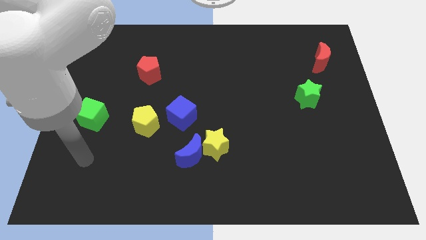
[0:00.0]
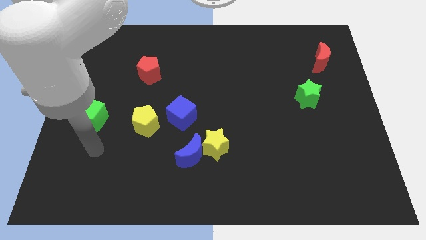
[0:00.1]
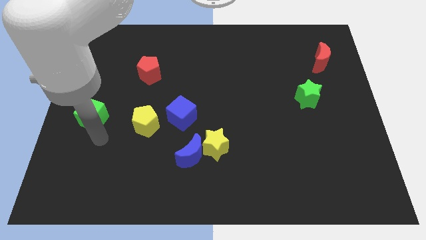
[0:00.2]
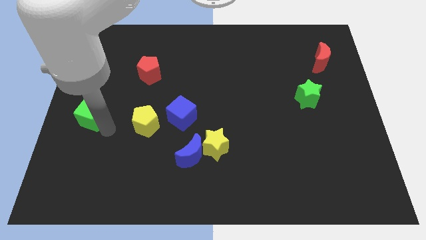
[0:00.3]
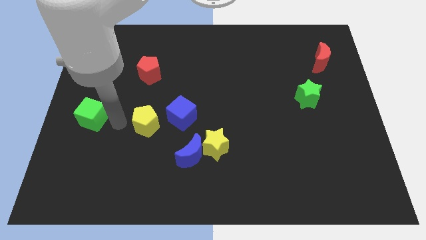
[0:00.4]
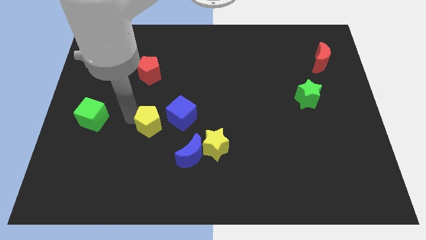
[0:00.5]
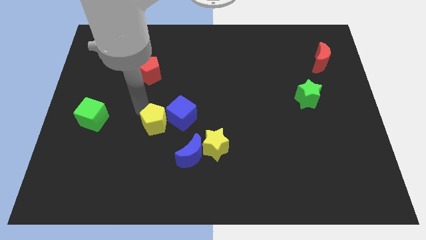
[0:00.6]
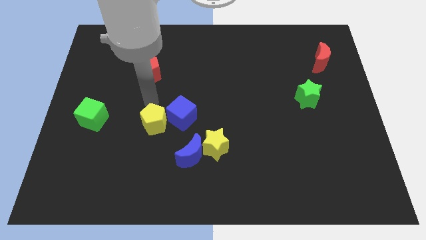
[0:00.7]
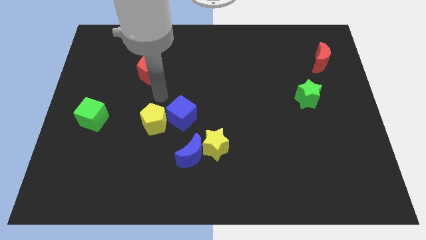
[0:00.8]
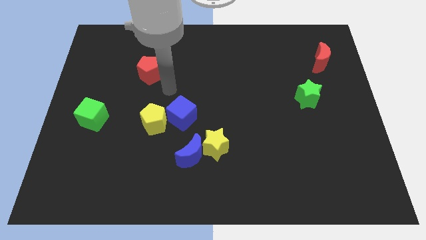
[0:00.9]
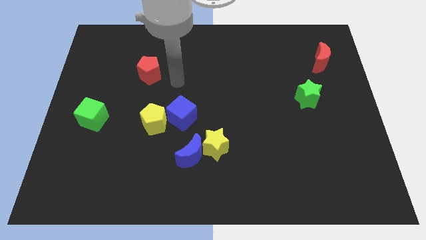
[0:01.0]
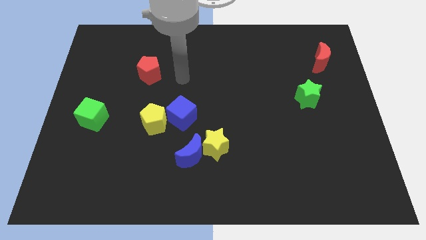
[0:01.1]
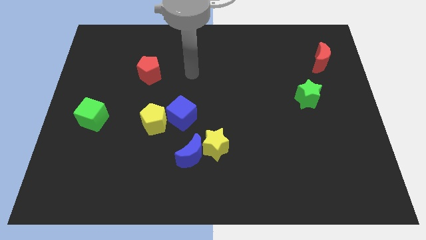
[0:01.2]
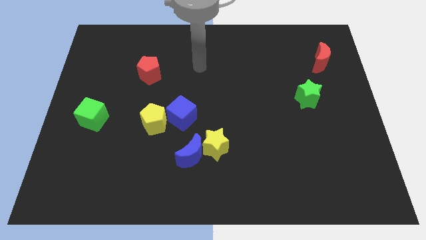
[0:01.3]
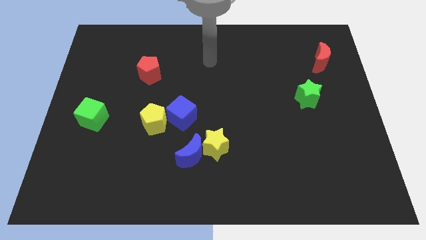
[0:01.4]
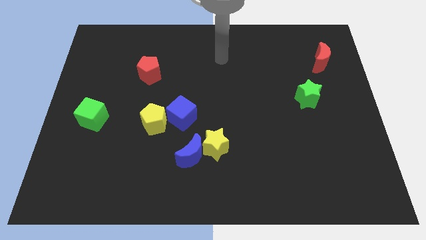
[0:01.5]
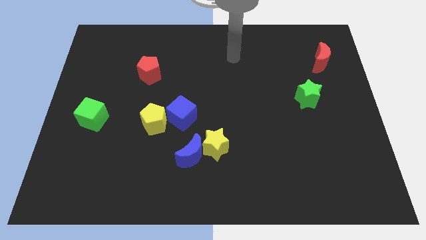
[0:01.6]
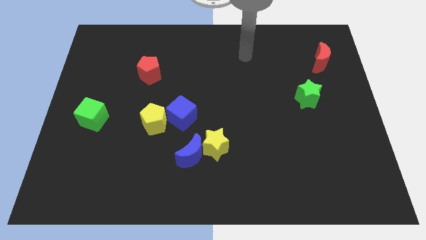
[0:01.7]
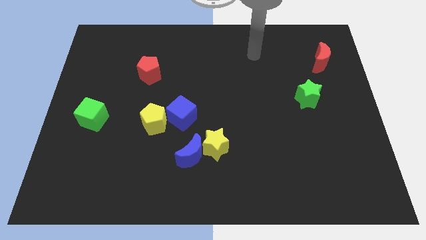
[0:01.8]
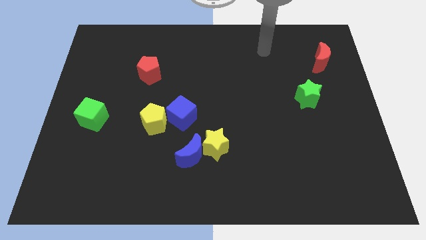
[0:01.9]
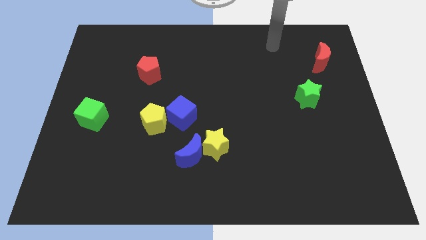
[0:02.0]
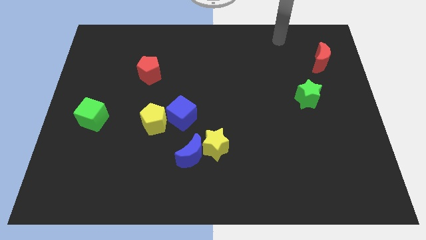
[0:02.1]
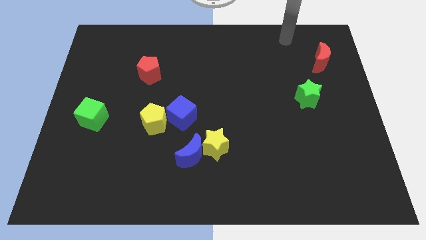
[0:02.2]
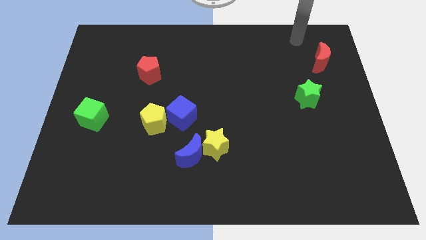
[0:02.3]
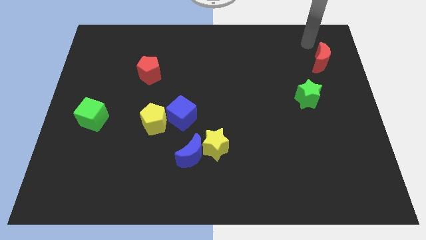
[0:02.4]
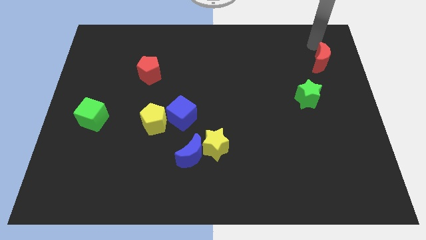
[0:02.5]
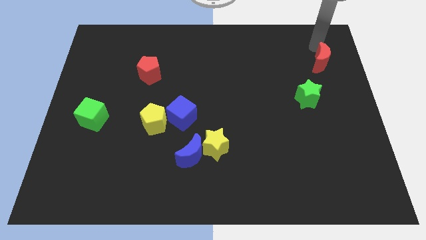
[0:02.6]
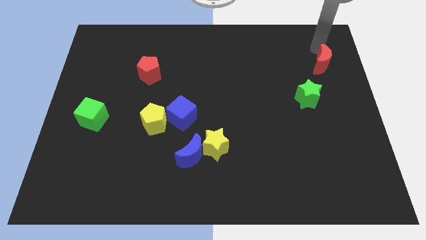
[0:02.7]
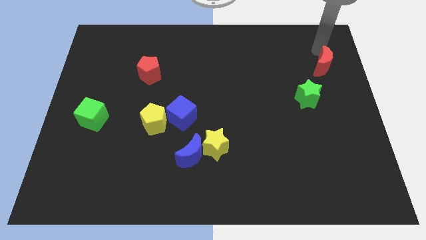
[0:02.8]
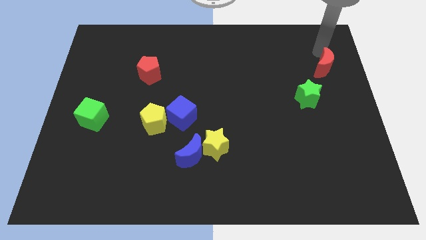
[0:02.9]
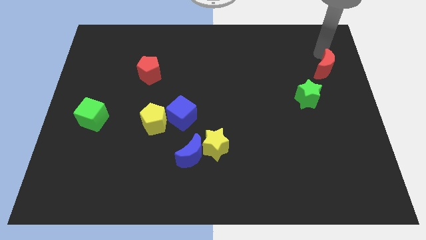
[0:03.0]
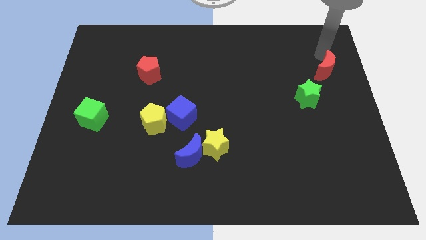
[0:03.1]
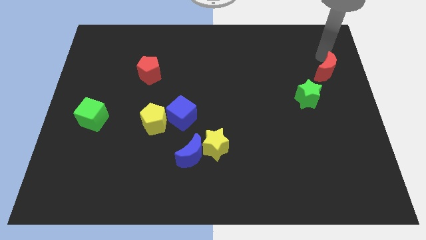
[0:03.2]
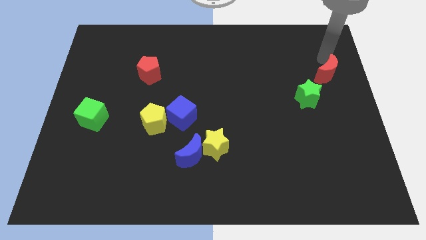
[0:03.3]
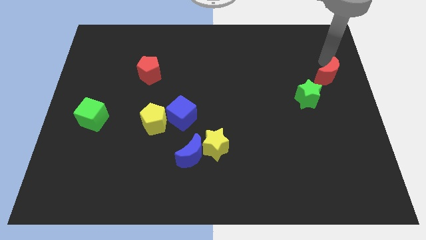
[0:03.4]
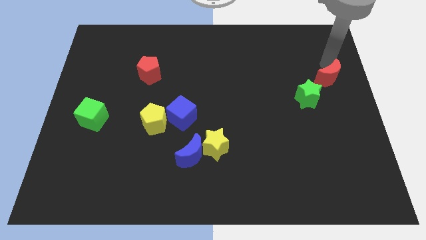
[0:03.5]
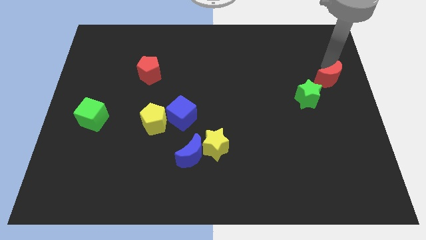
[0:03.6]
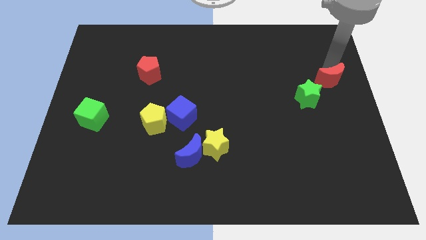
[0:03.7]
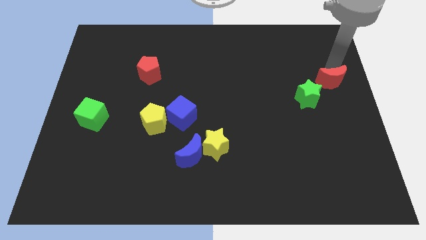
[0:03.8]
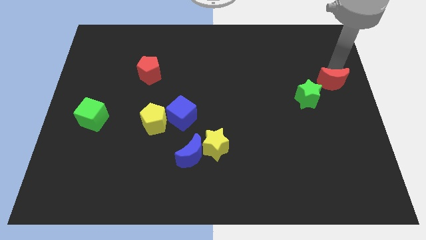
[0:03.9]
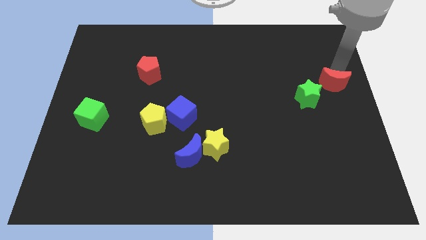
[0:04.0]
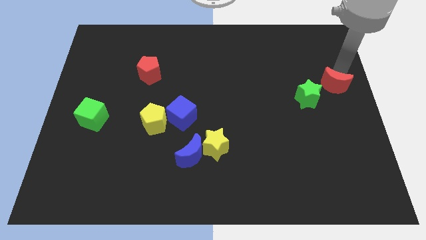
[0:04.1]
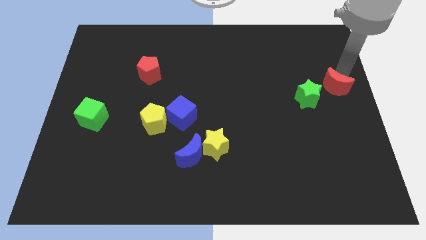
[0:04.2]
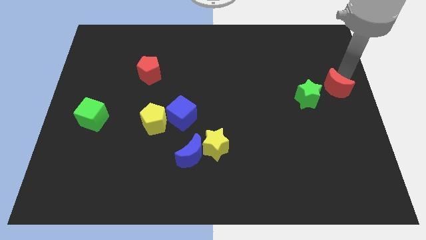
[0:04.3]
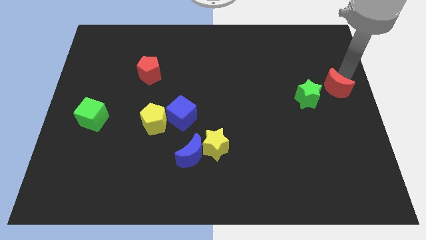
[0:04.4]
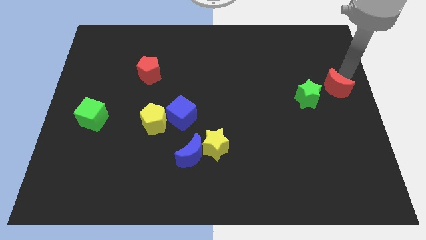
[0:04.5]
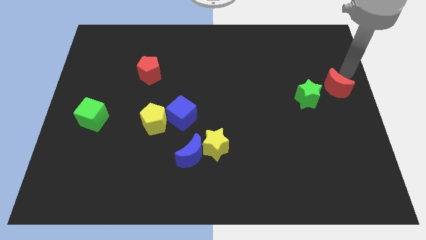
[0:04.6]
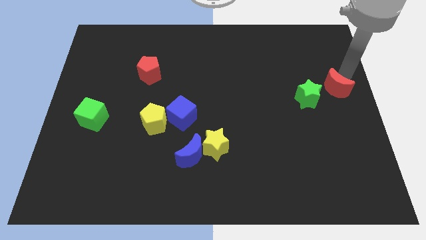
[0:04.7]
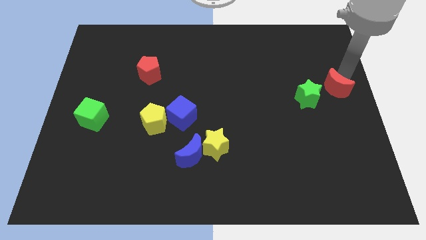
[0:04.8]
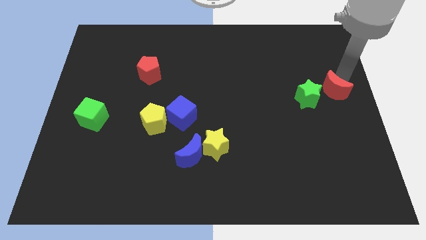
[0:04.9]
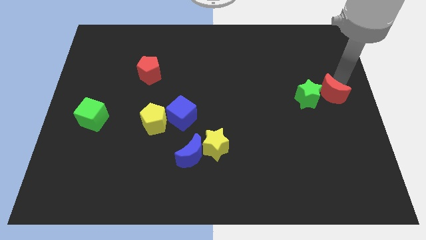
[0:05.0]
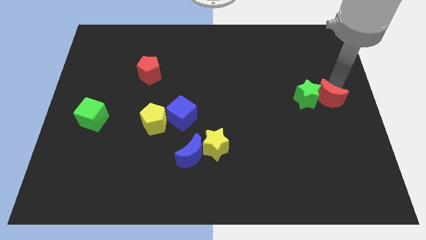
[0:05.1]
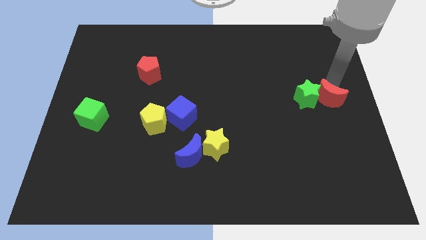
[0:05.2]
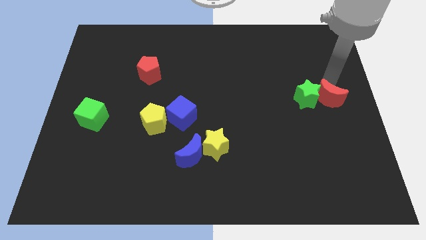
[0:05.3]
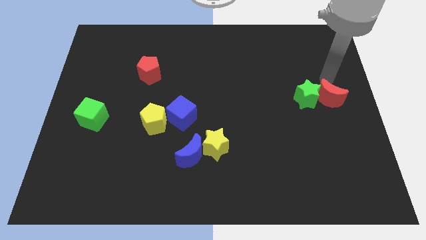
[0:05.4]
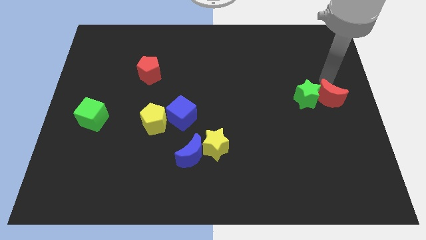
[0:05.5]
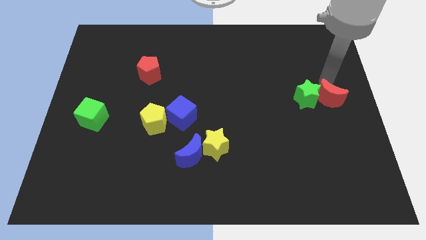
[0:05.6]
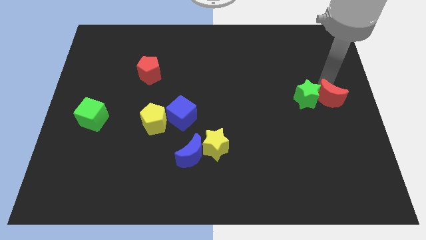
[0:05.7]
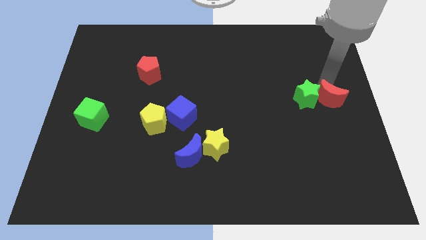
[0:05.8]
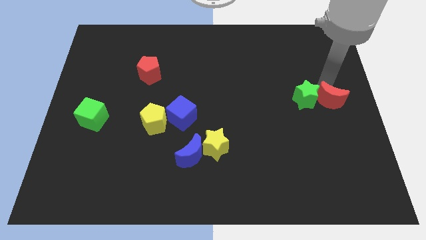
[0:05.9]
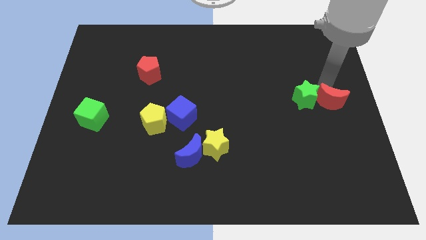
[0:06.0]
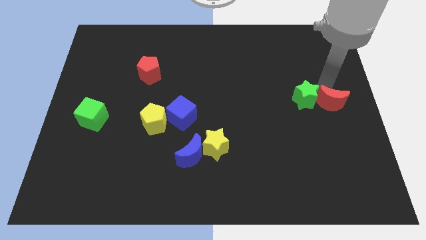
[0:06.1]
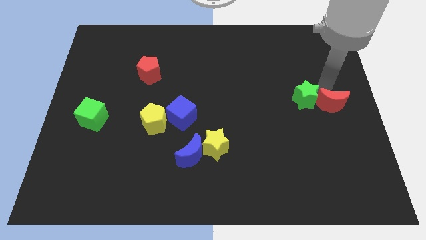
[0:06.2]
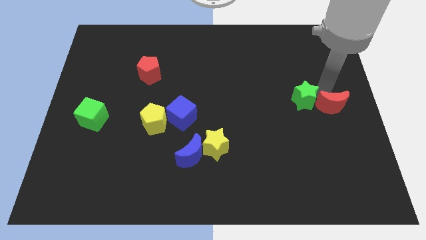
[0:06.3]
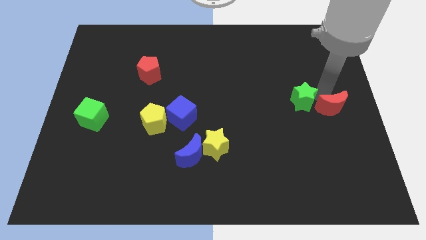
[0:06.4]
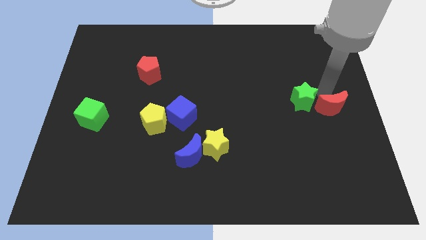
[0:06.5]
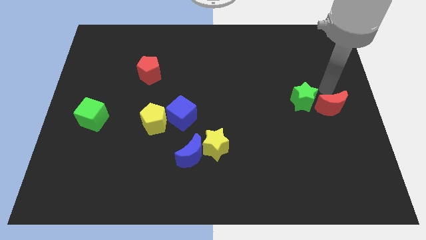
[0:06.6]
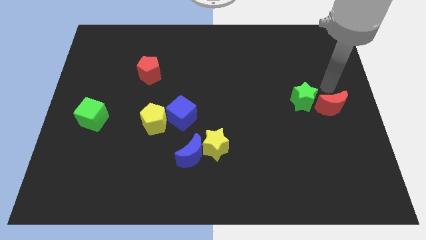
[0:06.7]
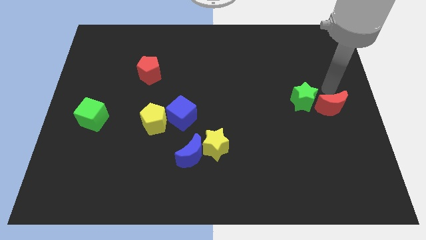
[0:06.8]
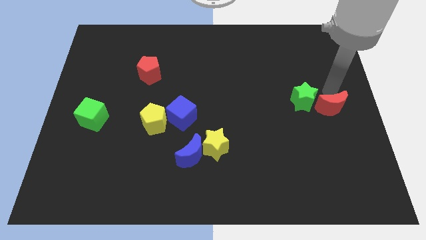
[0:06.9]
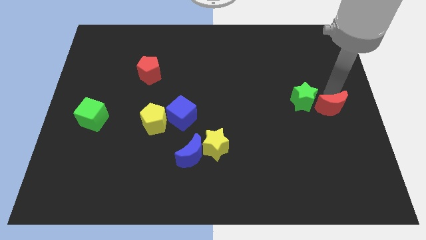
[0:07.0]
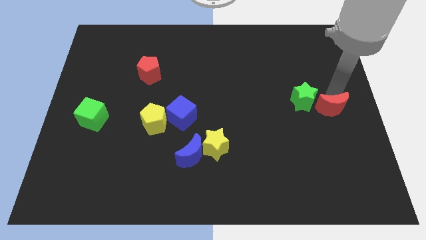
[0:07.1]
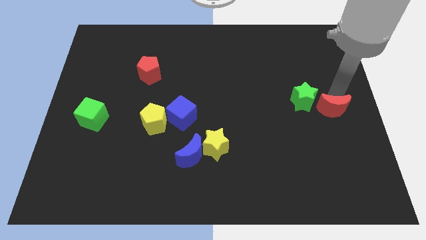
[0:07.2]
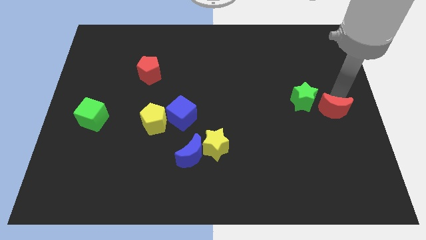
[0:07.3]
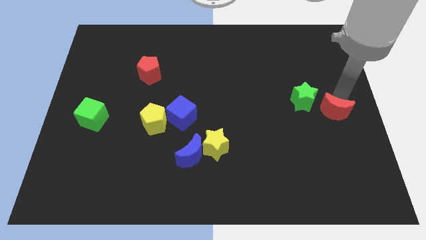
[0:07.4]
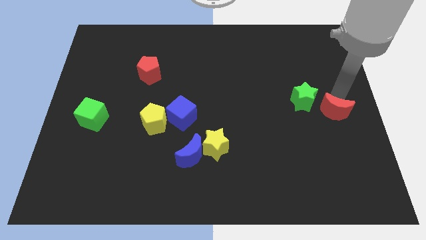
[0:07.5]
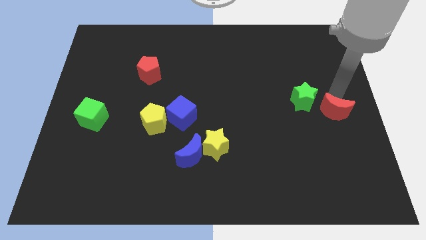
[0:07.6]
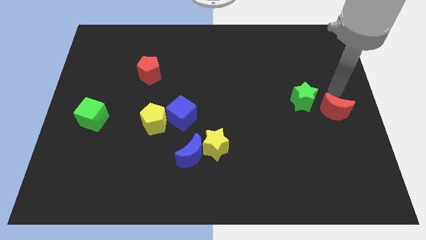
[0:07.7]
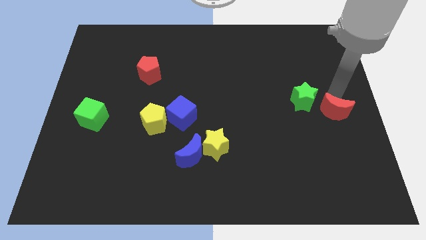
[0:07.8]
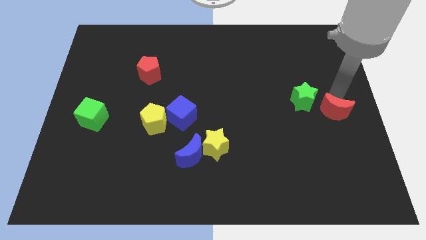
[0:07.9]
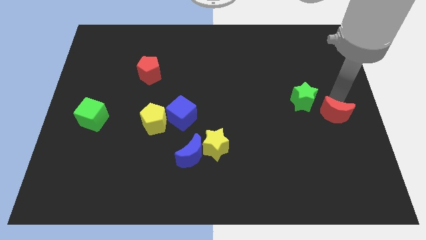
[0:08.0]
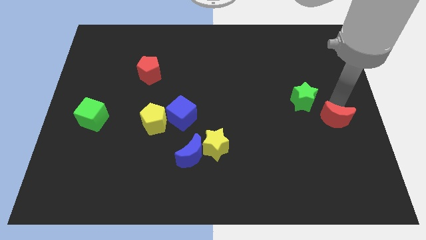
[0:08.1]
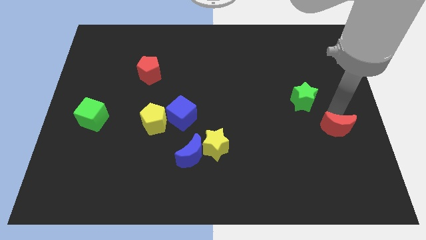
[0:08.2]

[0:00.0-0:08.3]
slide the red moon downwards
